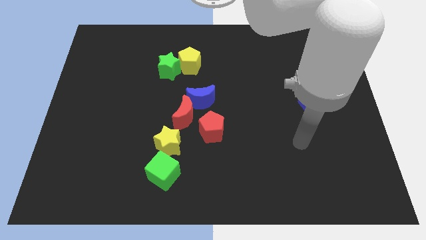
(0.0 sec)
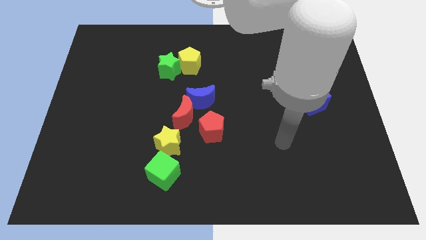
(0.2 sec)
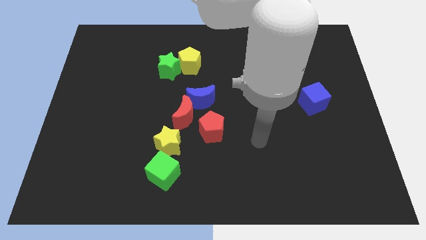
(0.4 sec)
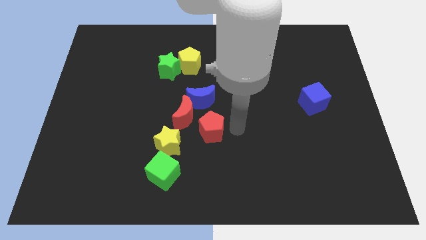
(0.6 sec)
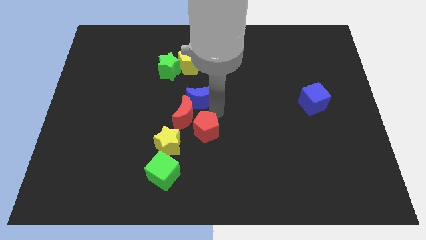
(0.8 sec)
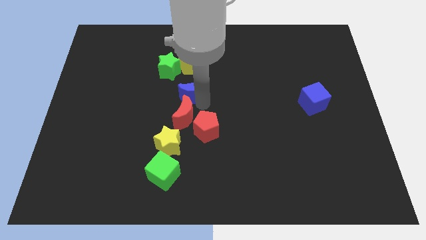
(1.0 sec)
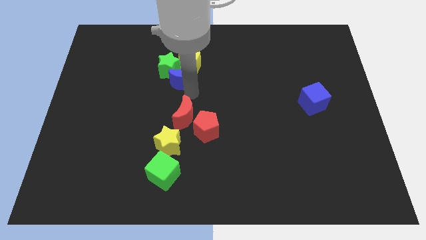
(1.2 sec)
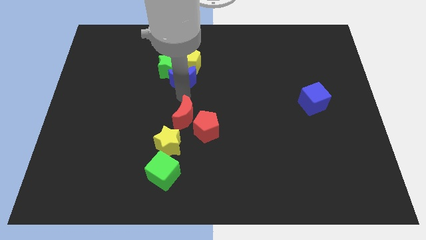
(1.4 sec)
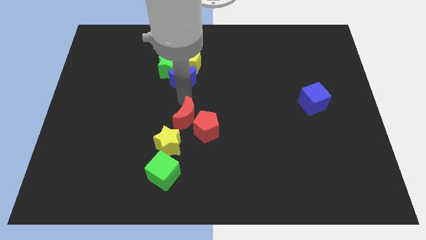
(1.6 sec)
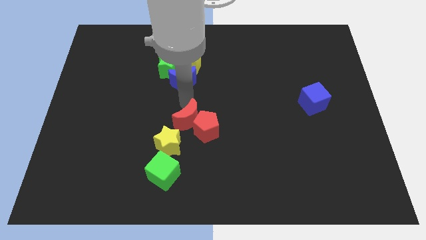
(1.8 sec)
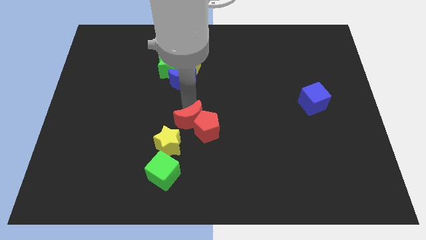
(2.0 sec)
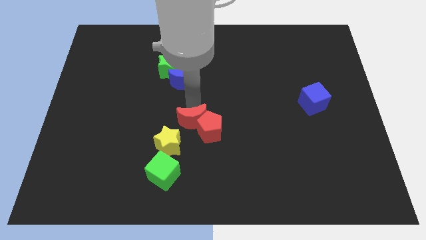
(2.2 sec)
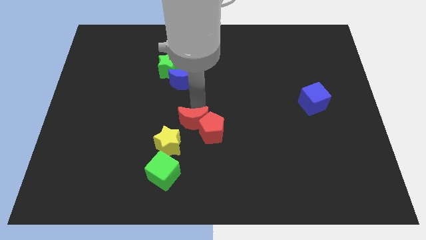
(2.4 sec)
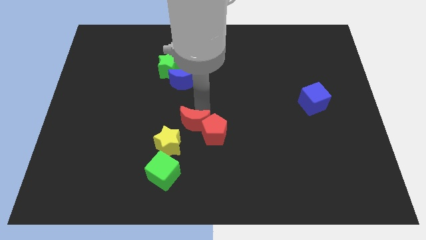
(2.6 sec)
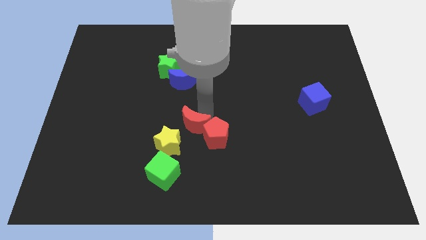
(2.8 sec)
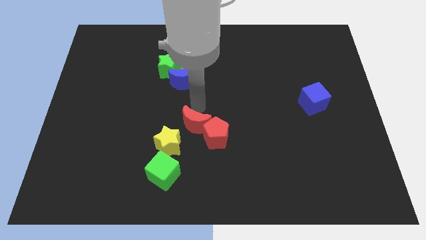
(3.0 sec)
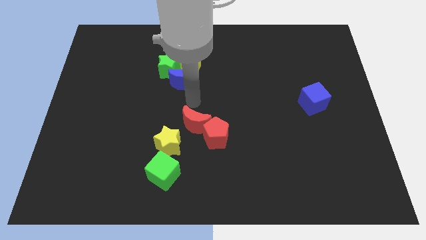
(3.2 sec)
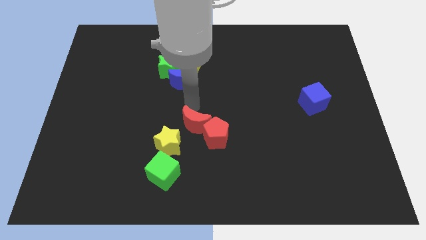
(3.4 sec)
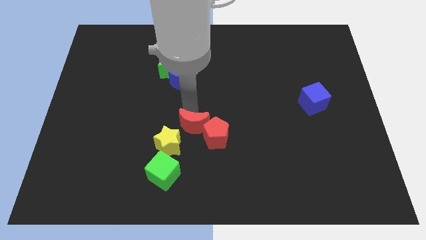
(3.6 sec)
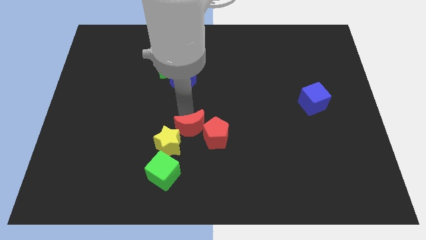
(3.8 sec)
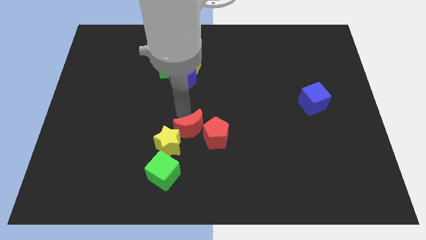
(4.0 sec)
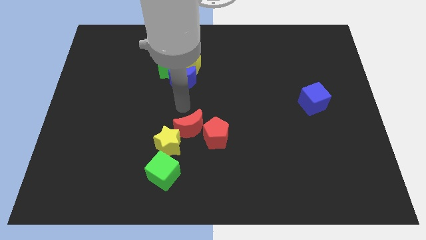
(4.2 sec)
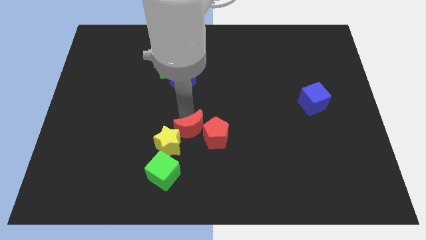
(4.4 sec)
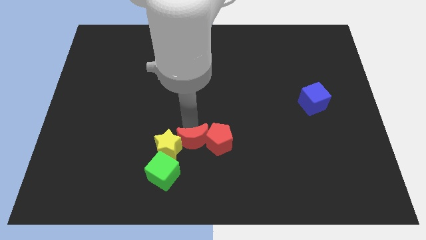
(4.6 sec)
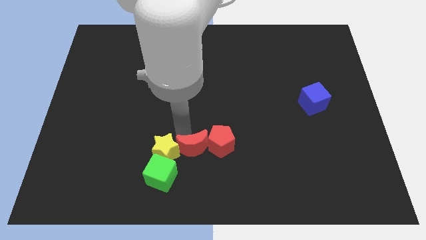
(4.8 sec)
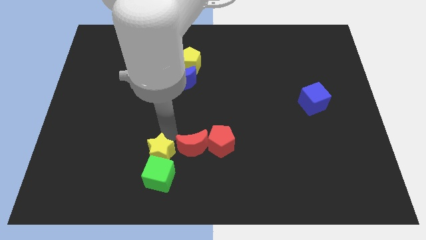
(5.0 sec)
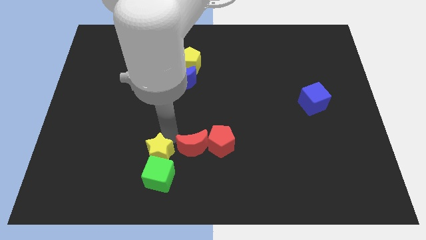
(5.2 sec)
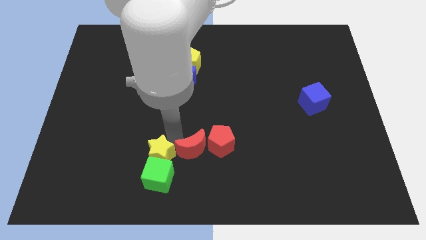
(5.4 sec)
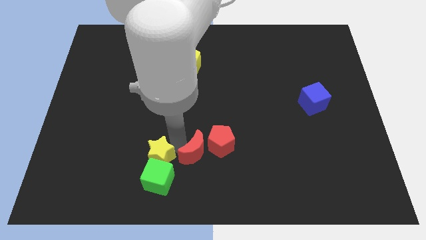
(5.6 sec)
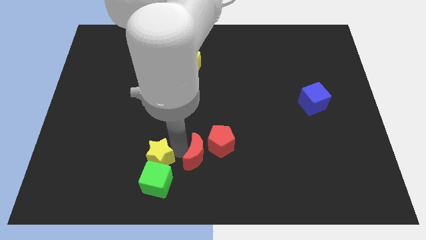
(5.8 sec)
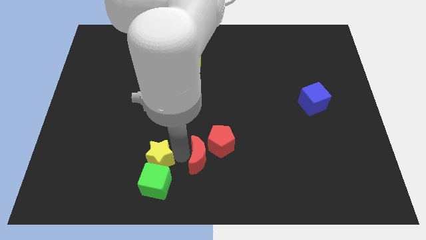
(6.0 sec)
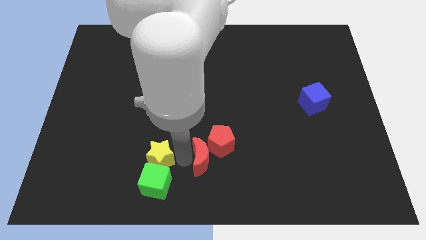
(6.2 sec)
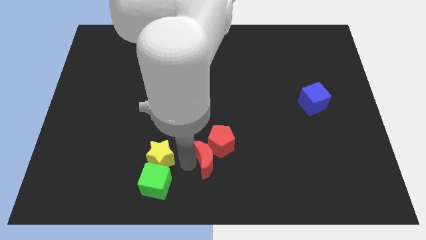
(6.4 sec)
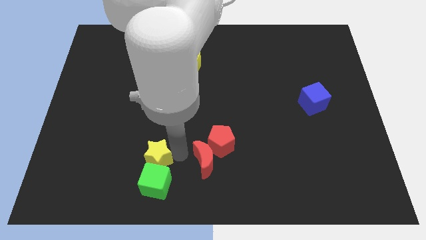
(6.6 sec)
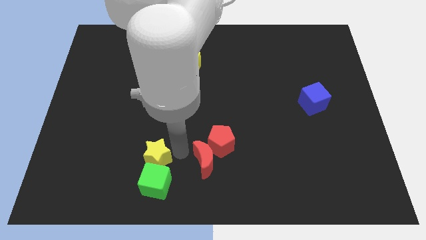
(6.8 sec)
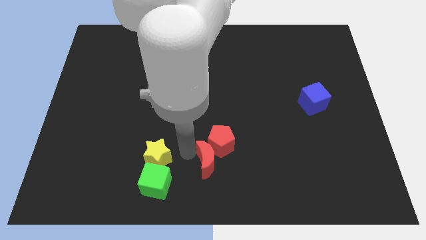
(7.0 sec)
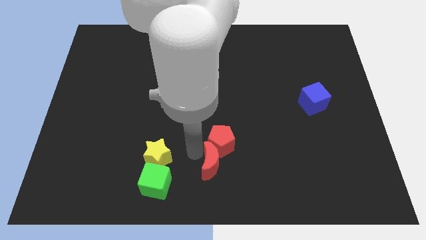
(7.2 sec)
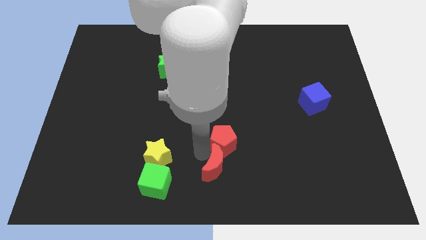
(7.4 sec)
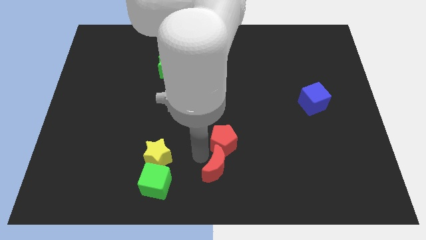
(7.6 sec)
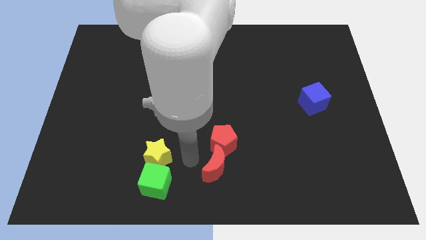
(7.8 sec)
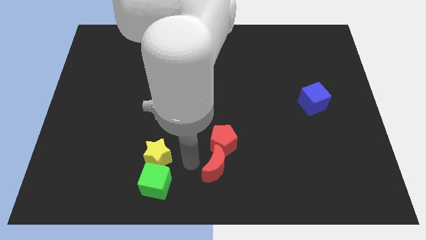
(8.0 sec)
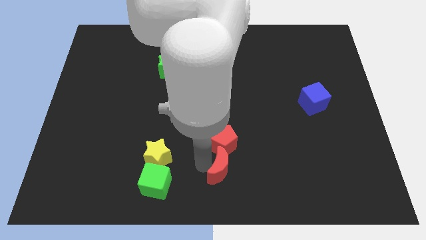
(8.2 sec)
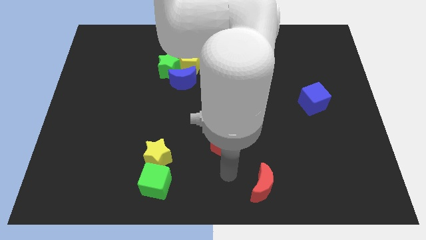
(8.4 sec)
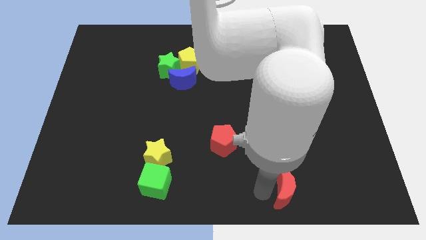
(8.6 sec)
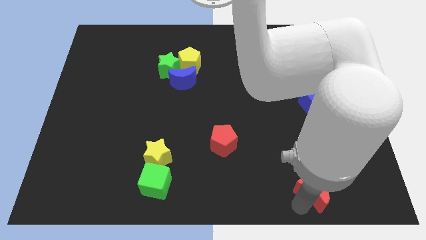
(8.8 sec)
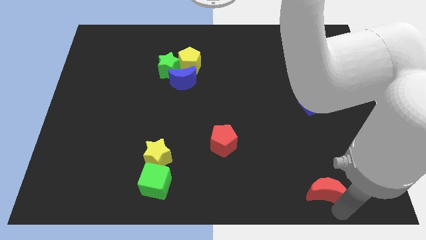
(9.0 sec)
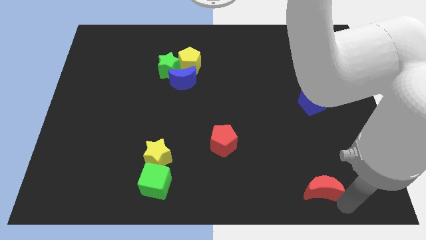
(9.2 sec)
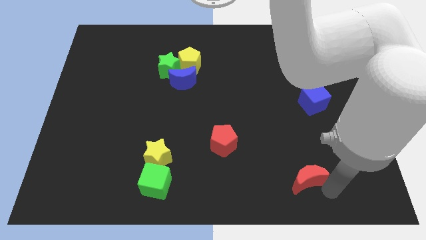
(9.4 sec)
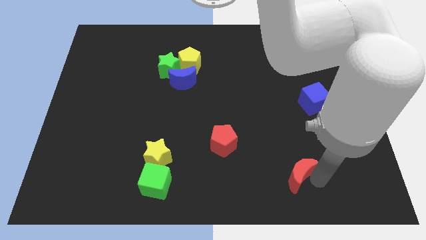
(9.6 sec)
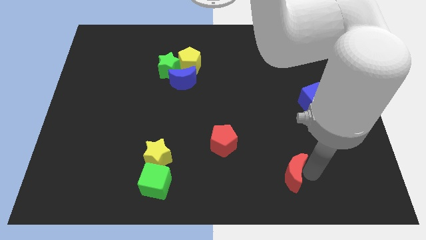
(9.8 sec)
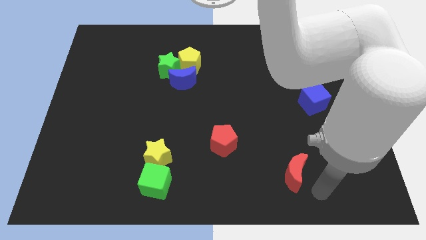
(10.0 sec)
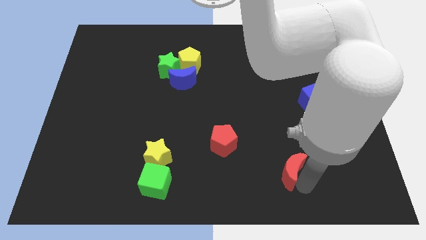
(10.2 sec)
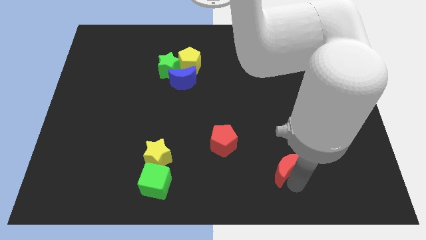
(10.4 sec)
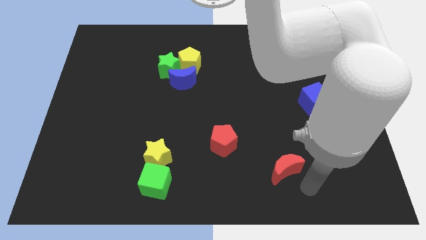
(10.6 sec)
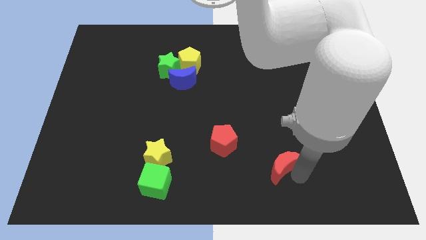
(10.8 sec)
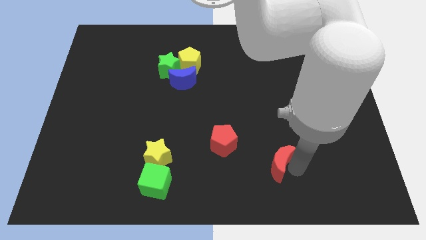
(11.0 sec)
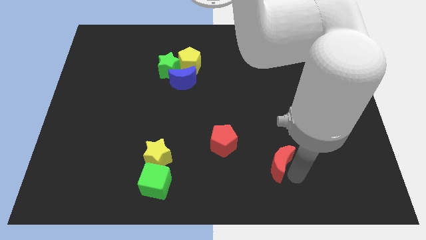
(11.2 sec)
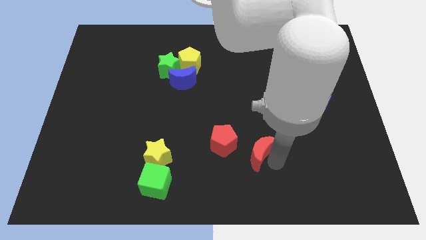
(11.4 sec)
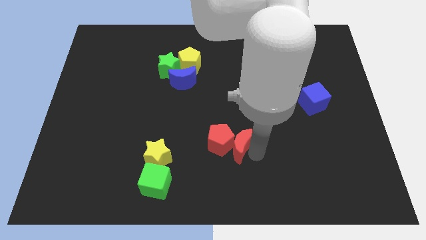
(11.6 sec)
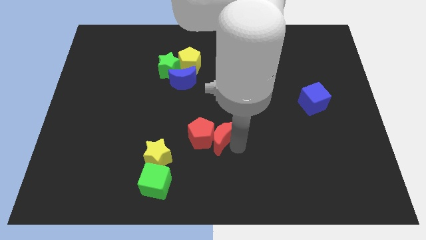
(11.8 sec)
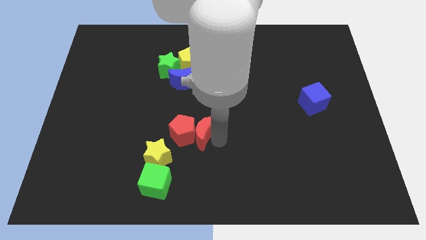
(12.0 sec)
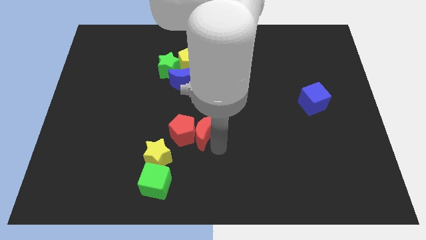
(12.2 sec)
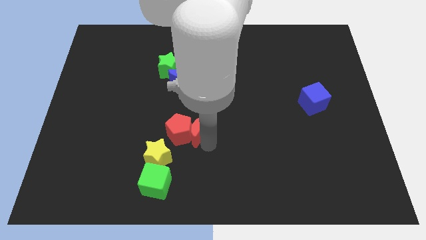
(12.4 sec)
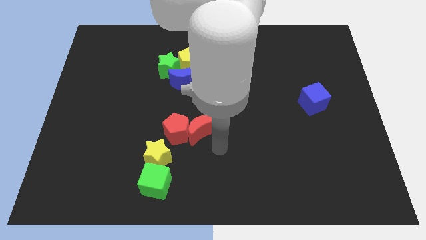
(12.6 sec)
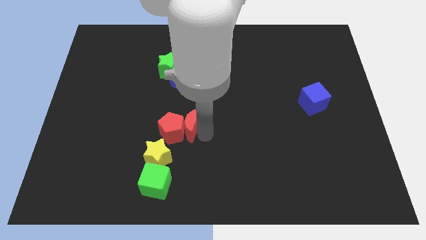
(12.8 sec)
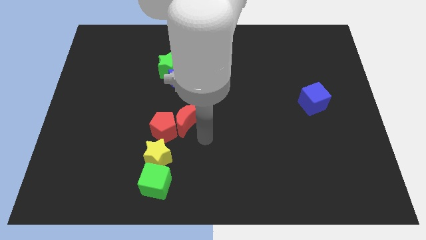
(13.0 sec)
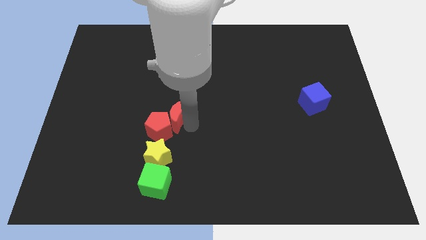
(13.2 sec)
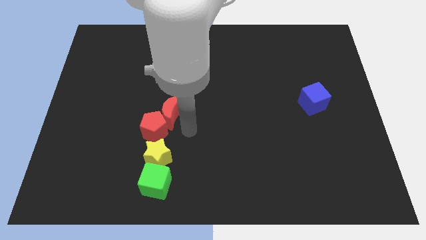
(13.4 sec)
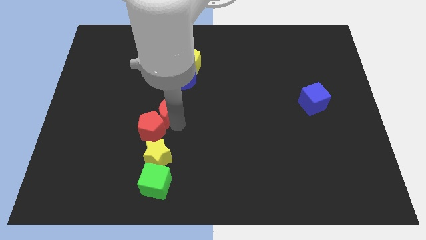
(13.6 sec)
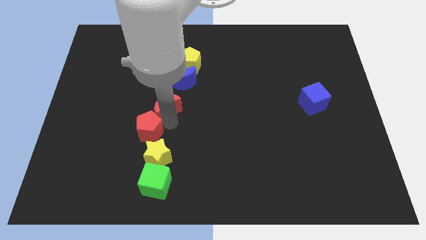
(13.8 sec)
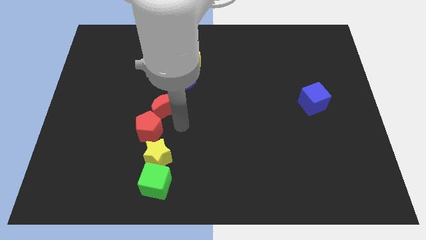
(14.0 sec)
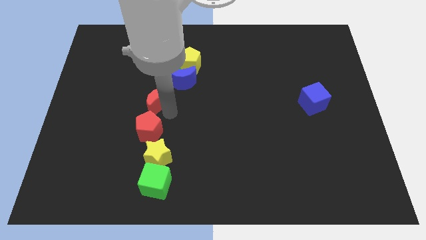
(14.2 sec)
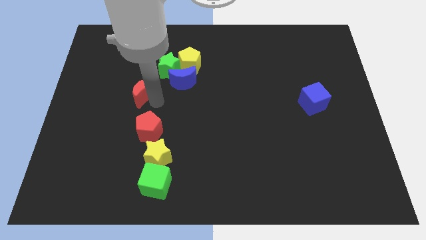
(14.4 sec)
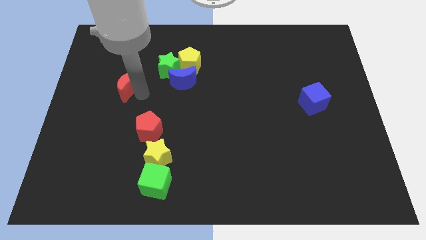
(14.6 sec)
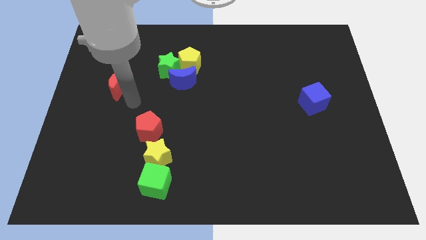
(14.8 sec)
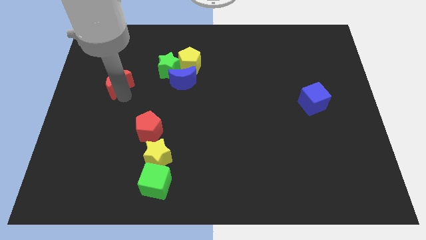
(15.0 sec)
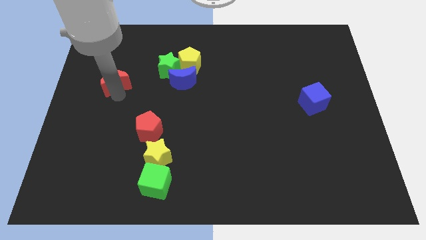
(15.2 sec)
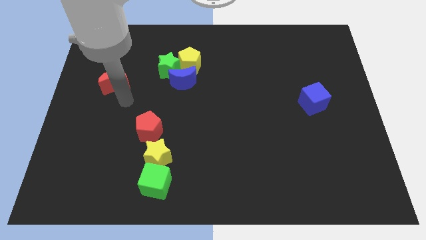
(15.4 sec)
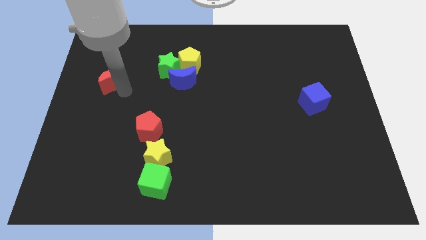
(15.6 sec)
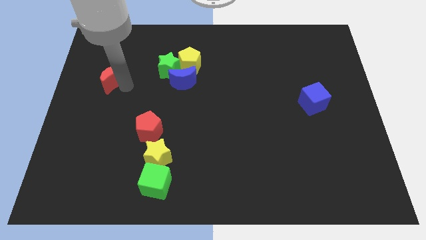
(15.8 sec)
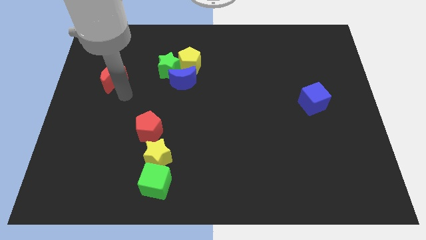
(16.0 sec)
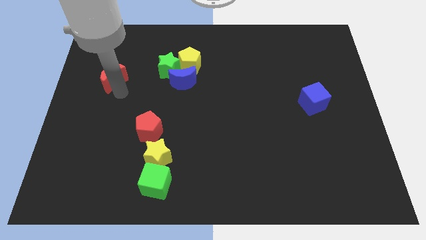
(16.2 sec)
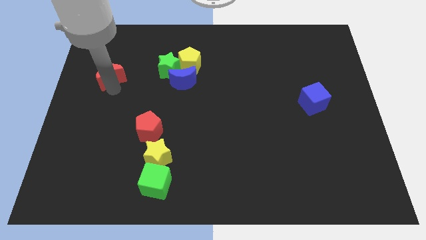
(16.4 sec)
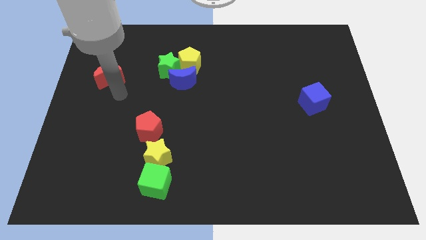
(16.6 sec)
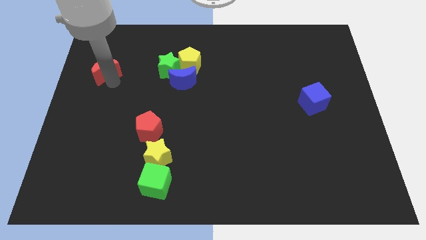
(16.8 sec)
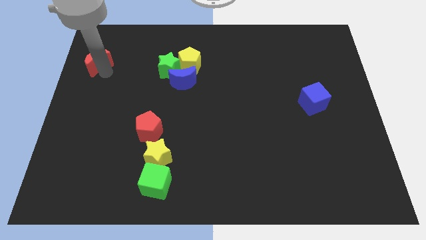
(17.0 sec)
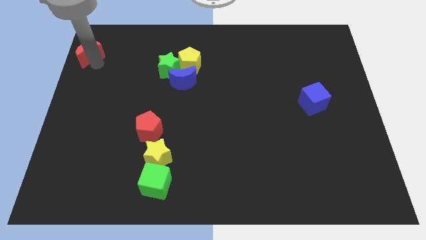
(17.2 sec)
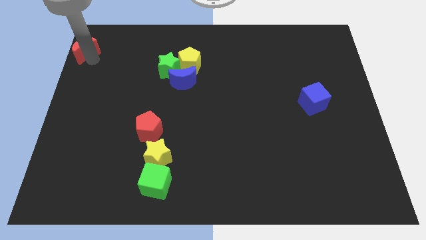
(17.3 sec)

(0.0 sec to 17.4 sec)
slide the red moon to the top left corner
